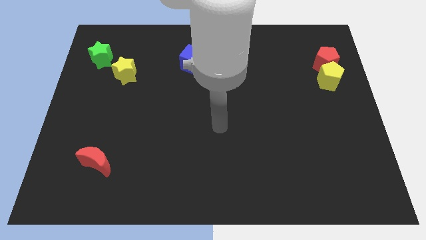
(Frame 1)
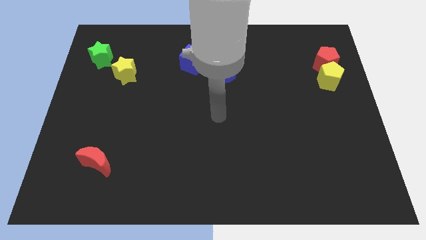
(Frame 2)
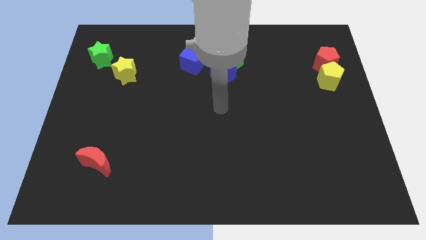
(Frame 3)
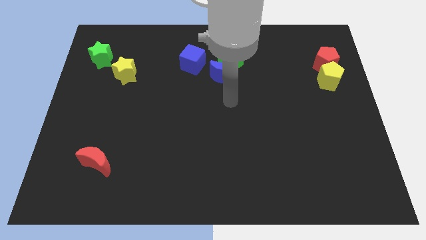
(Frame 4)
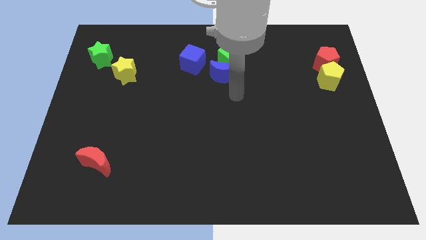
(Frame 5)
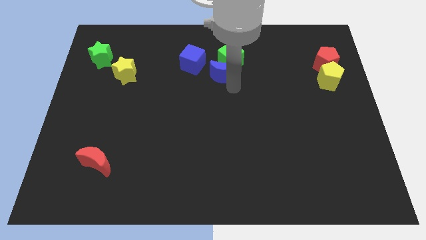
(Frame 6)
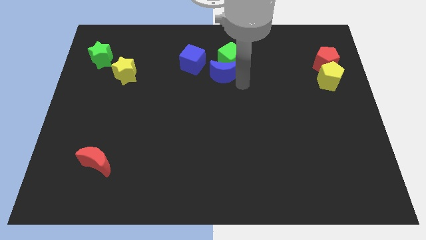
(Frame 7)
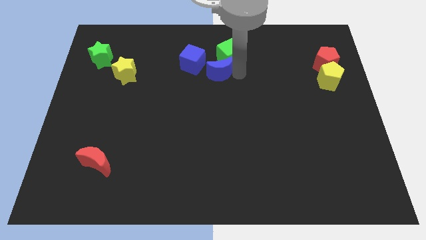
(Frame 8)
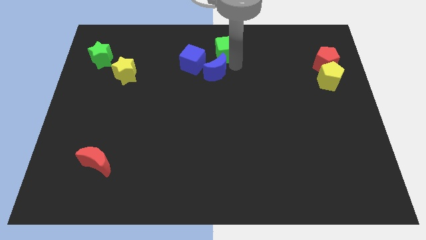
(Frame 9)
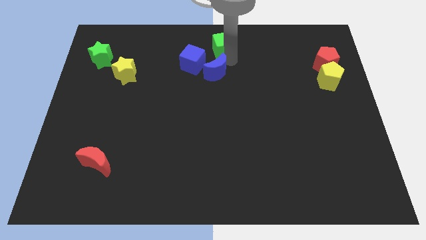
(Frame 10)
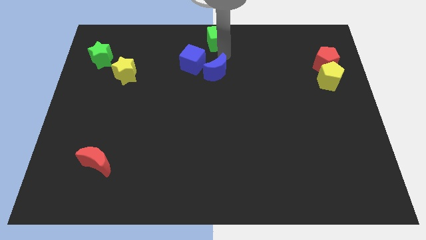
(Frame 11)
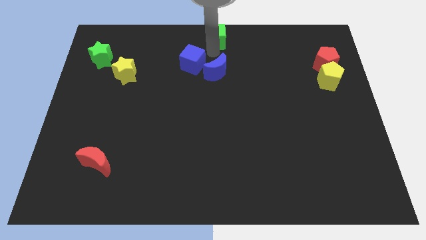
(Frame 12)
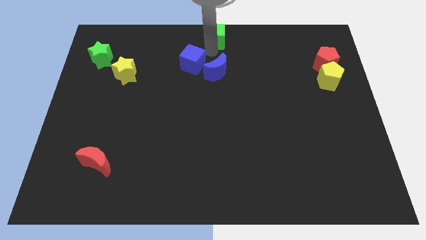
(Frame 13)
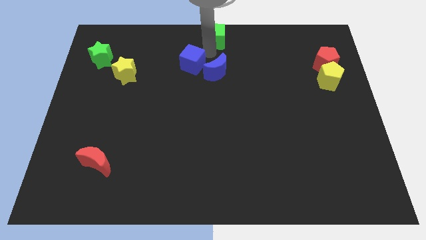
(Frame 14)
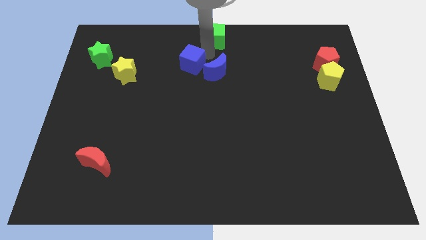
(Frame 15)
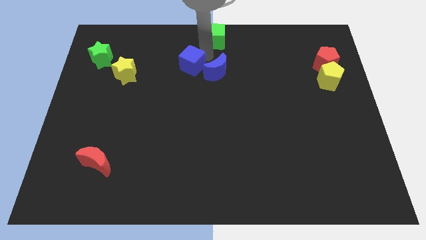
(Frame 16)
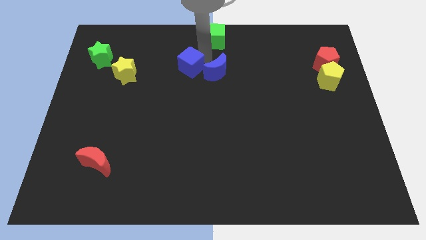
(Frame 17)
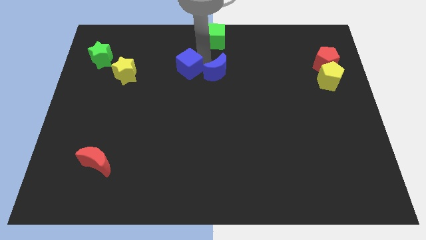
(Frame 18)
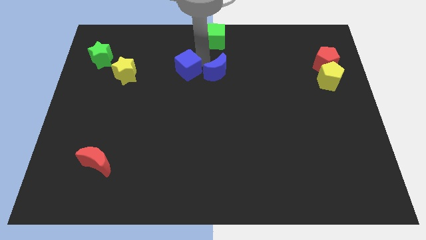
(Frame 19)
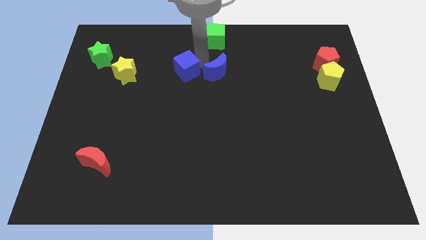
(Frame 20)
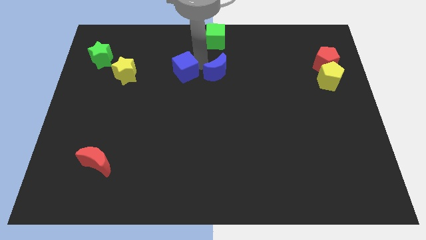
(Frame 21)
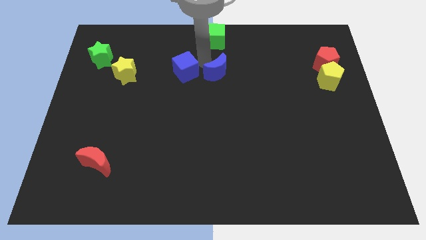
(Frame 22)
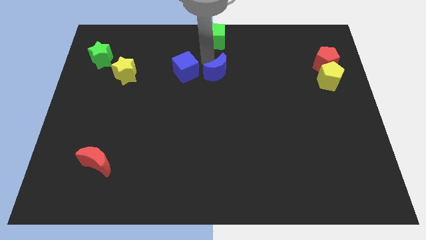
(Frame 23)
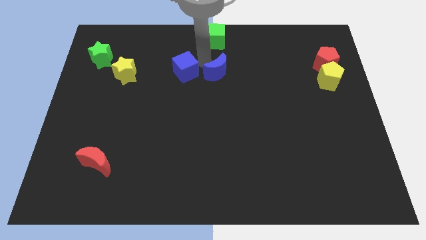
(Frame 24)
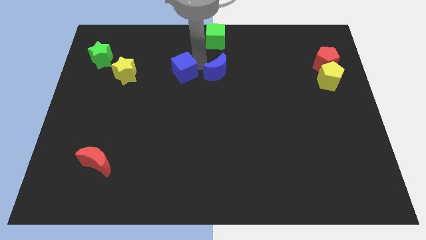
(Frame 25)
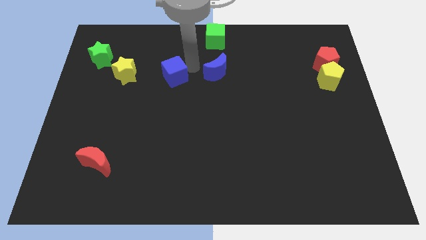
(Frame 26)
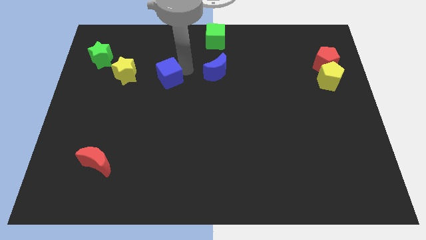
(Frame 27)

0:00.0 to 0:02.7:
slightly slide the blue cube diagonally downwards and to the left

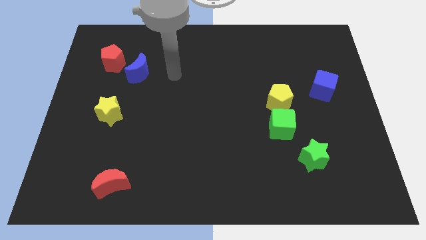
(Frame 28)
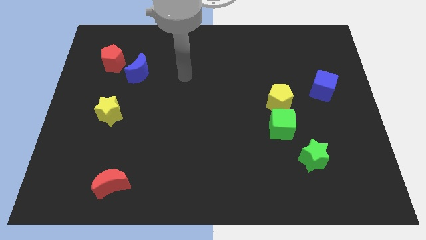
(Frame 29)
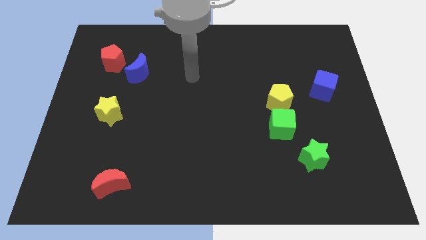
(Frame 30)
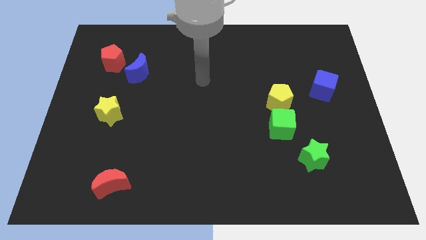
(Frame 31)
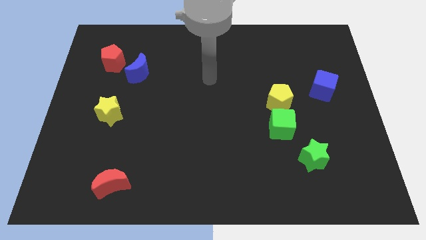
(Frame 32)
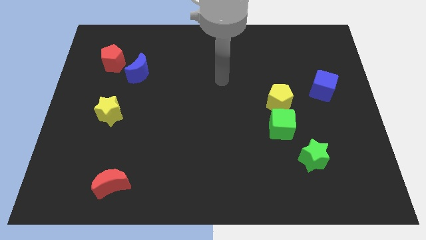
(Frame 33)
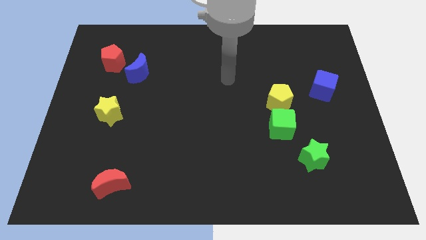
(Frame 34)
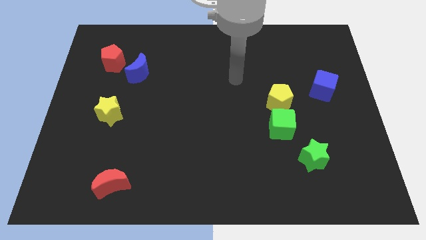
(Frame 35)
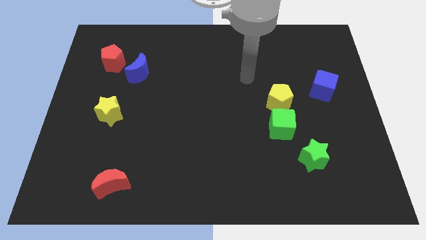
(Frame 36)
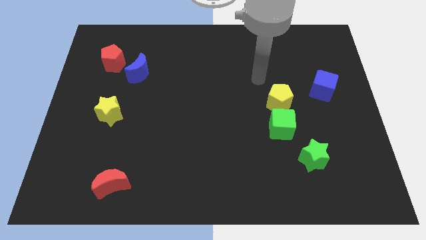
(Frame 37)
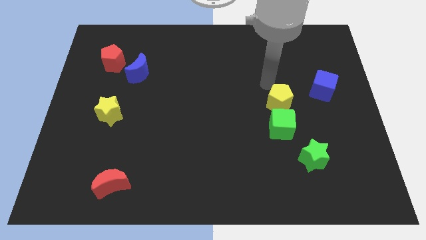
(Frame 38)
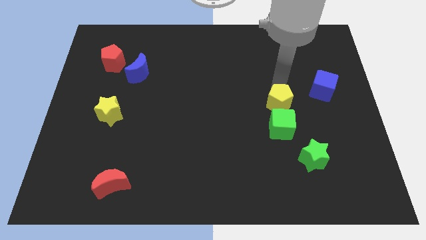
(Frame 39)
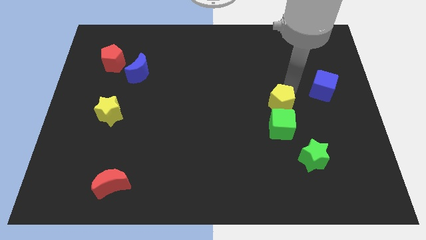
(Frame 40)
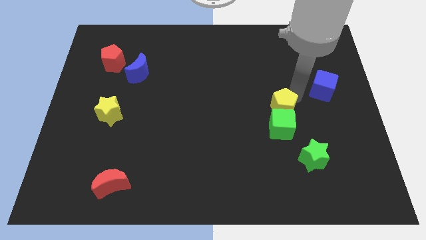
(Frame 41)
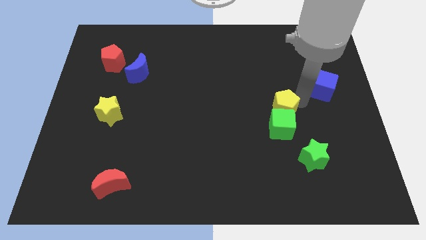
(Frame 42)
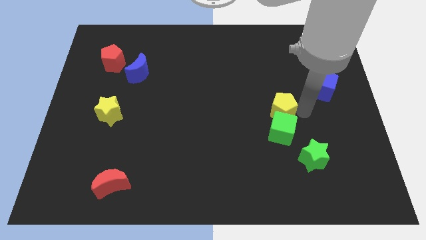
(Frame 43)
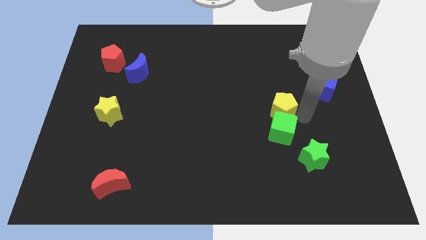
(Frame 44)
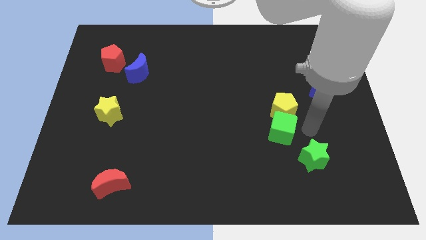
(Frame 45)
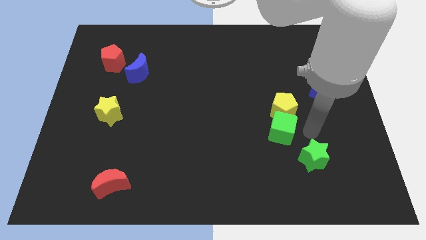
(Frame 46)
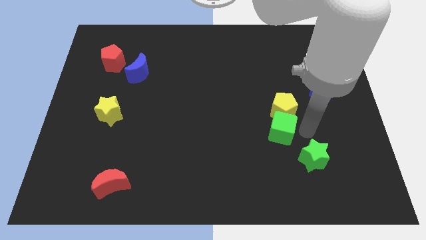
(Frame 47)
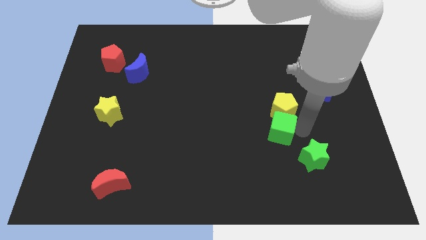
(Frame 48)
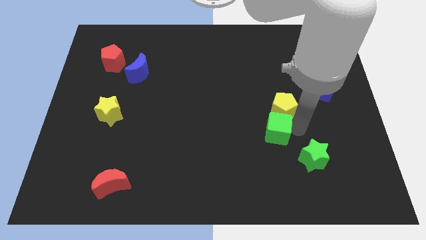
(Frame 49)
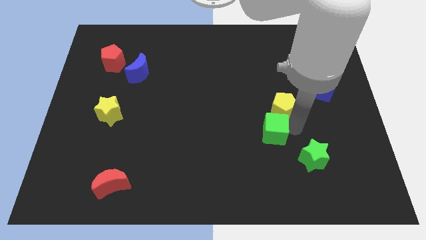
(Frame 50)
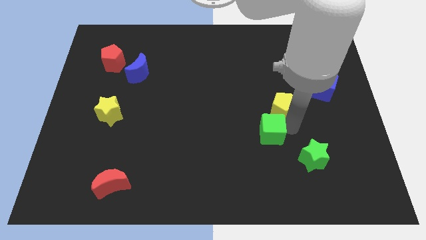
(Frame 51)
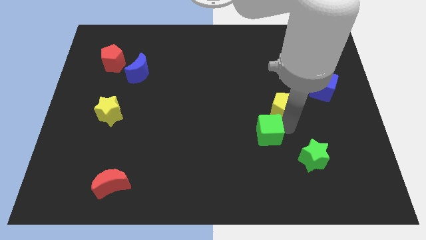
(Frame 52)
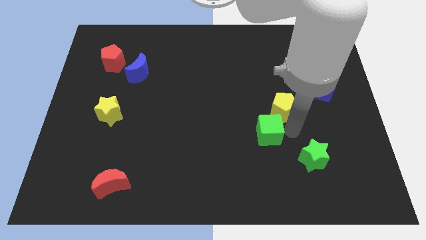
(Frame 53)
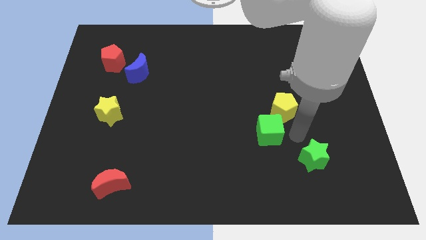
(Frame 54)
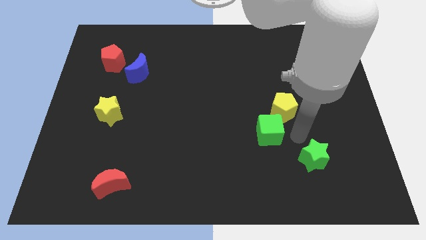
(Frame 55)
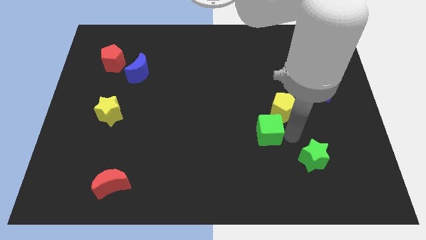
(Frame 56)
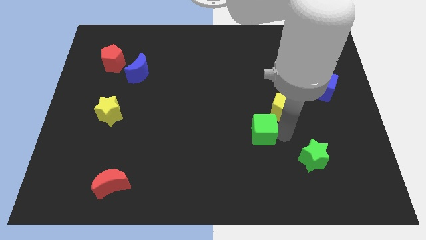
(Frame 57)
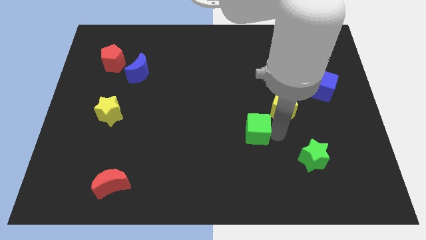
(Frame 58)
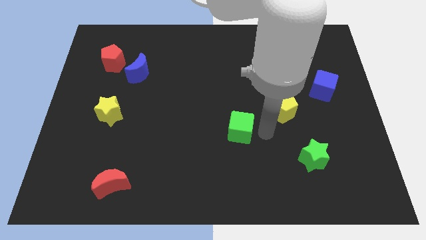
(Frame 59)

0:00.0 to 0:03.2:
push the green cube a little to the left

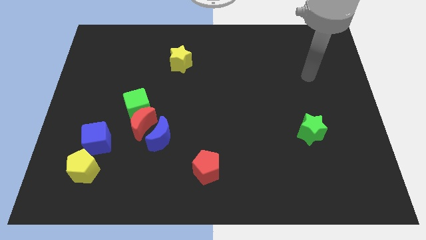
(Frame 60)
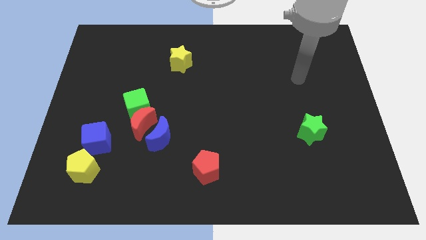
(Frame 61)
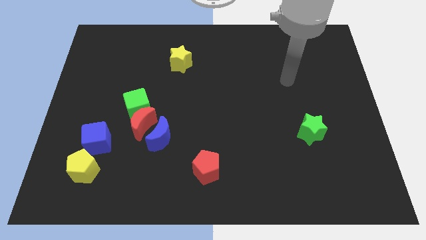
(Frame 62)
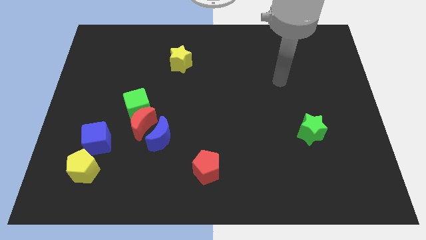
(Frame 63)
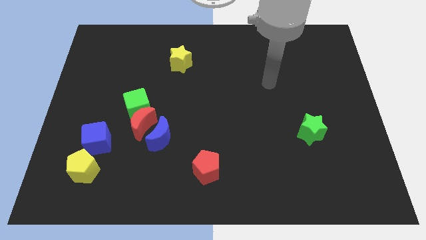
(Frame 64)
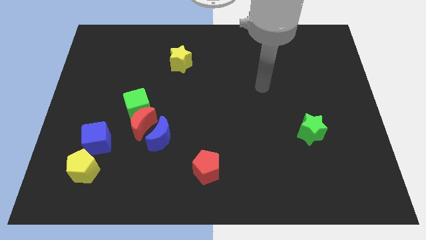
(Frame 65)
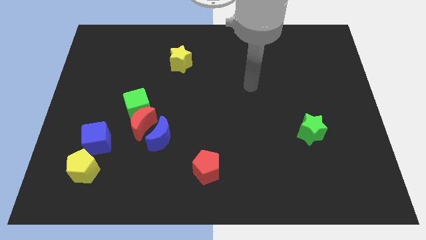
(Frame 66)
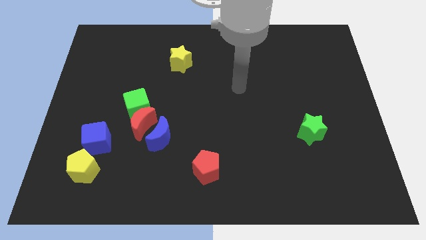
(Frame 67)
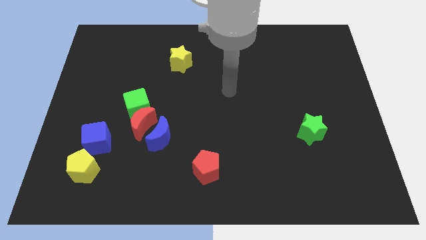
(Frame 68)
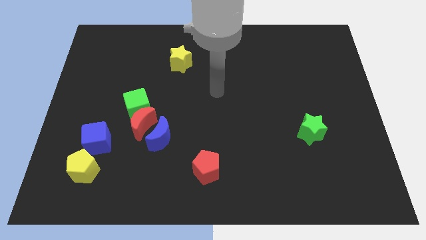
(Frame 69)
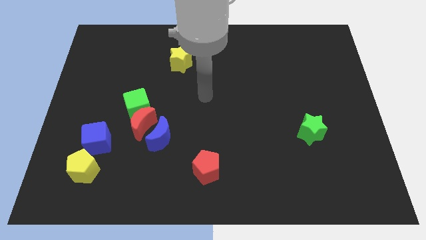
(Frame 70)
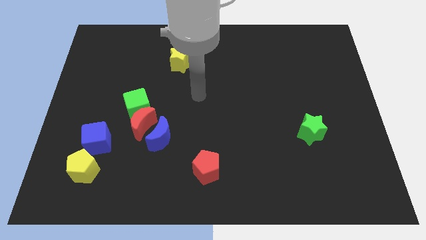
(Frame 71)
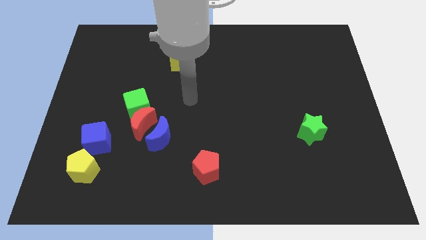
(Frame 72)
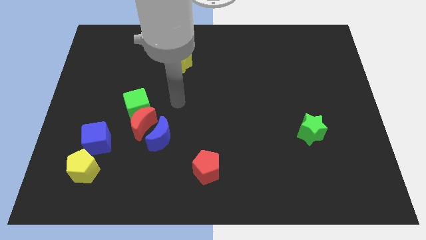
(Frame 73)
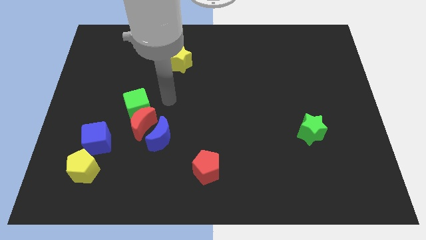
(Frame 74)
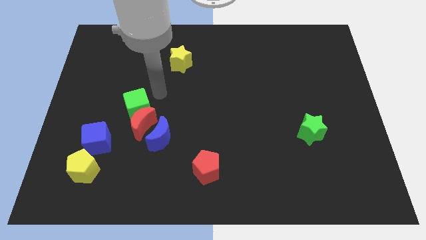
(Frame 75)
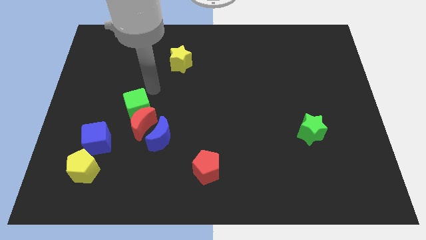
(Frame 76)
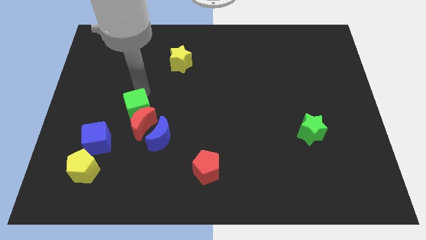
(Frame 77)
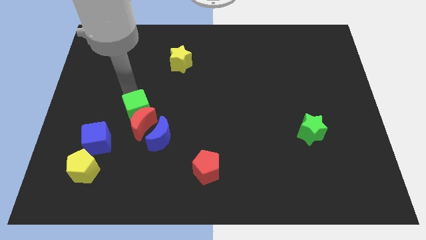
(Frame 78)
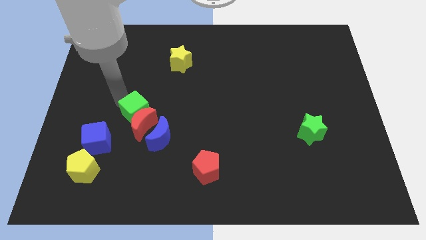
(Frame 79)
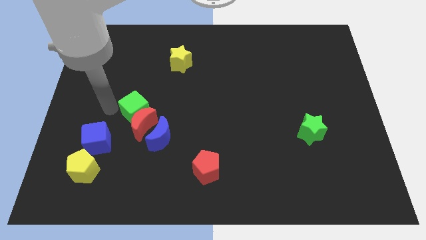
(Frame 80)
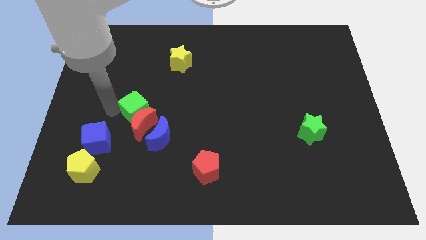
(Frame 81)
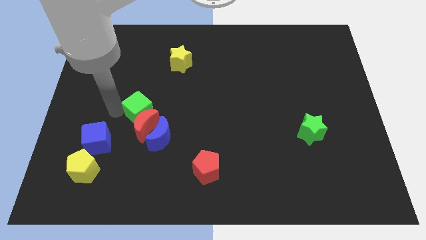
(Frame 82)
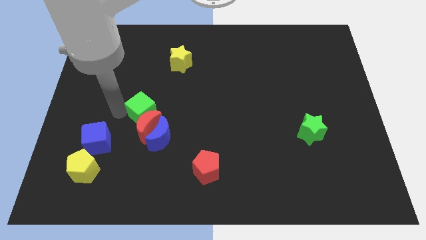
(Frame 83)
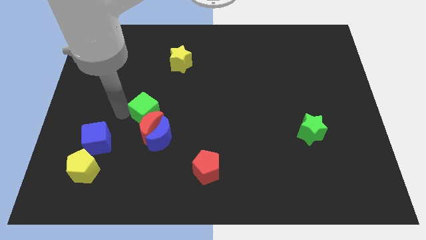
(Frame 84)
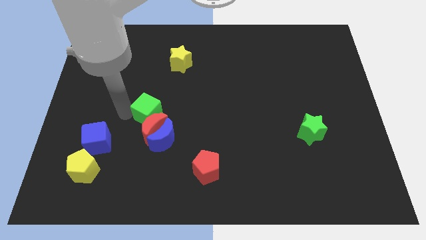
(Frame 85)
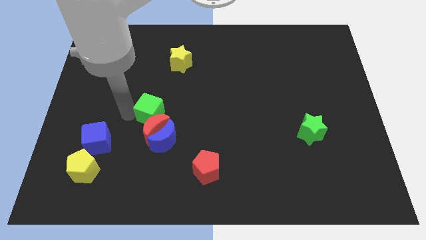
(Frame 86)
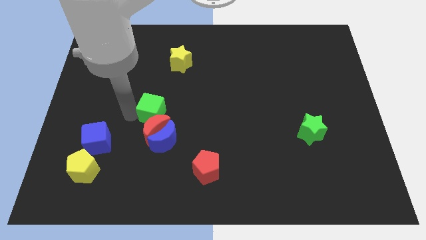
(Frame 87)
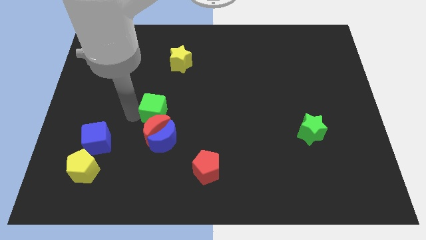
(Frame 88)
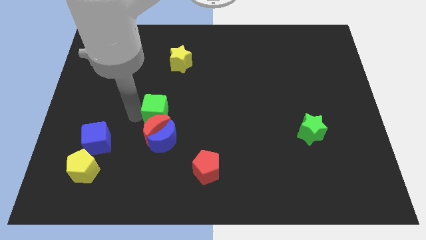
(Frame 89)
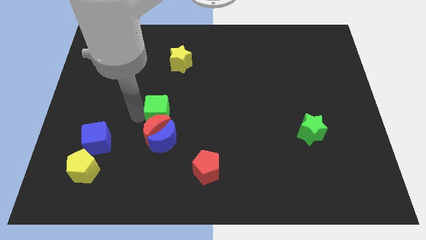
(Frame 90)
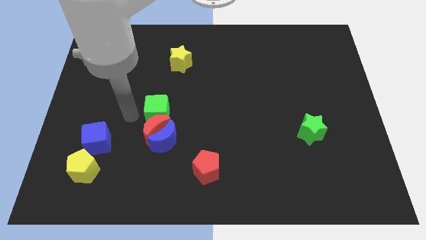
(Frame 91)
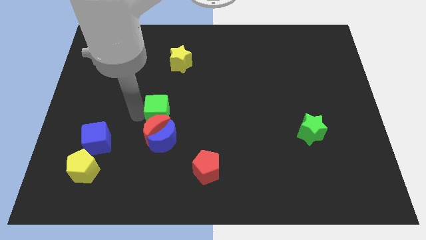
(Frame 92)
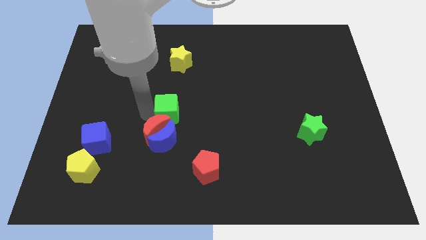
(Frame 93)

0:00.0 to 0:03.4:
slightly move the green cube right
